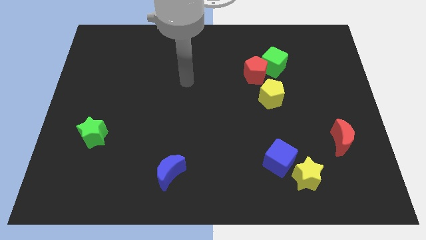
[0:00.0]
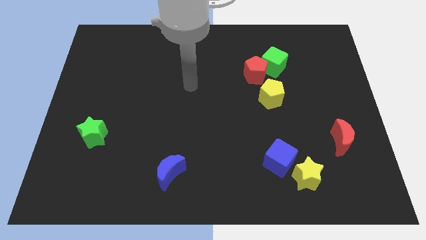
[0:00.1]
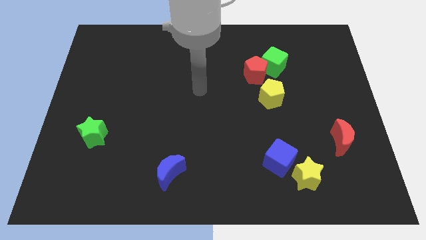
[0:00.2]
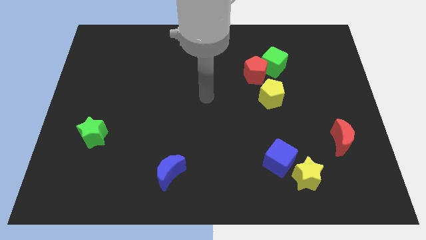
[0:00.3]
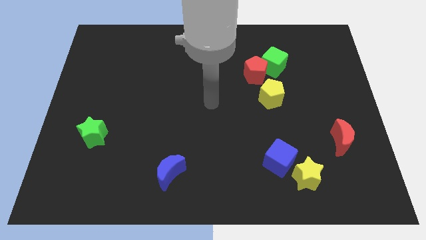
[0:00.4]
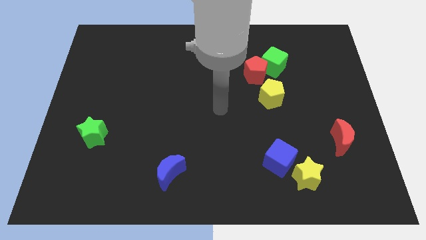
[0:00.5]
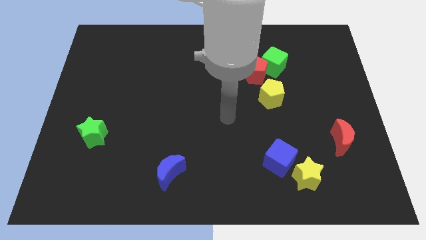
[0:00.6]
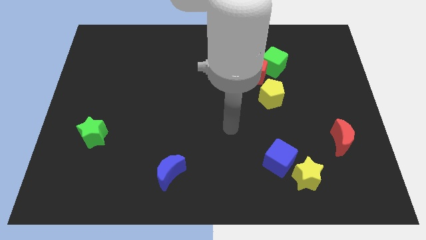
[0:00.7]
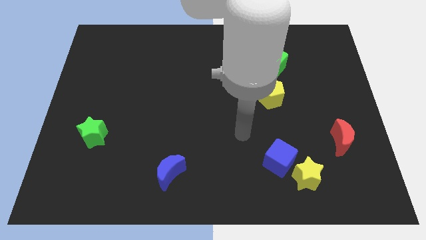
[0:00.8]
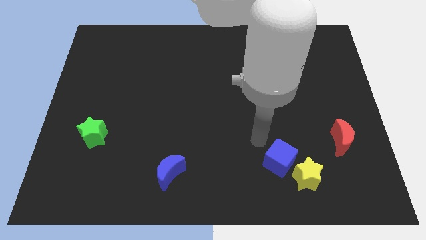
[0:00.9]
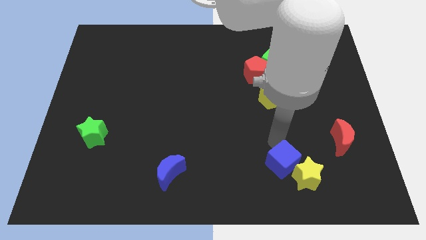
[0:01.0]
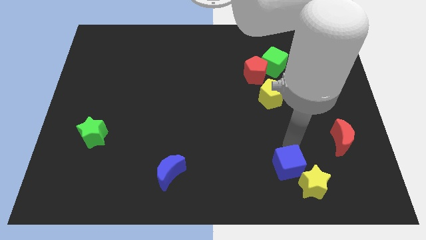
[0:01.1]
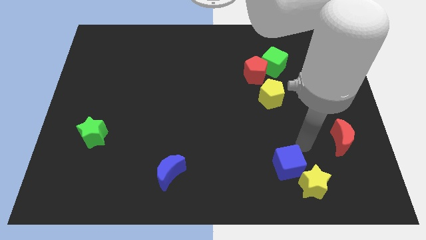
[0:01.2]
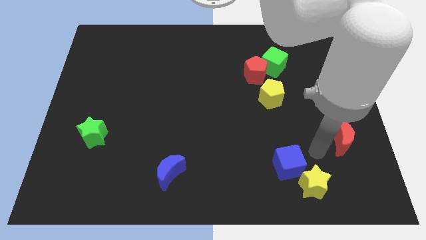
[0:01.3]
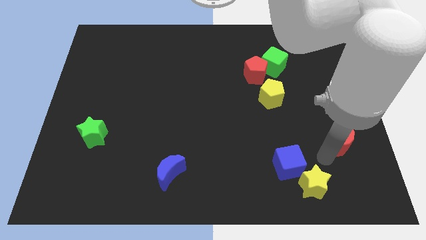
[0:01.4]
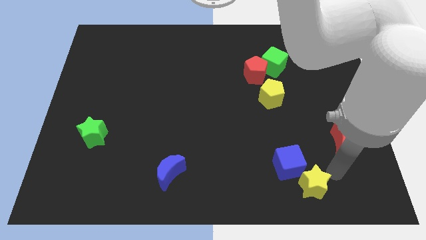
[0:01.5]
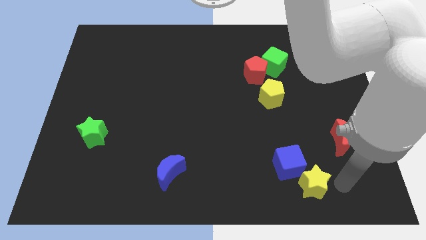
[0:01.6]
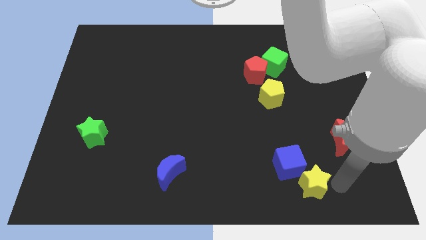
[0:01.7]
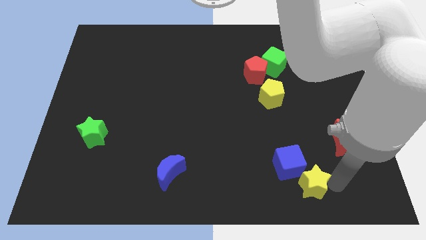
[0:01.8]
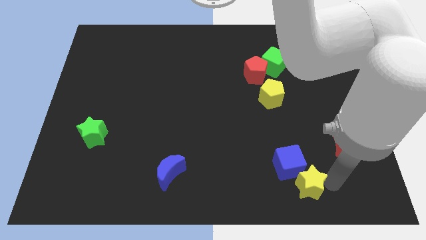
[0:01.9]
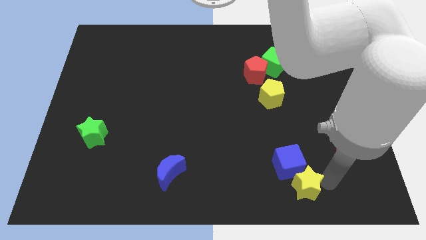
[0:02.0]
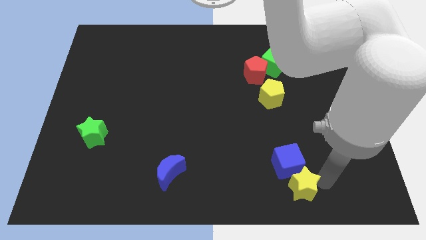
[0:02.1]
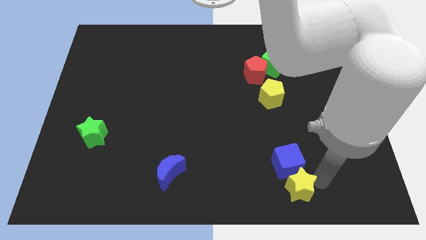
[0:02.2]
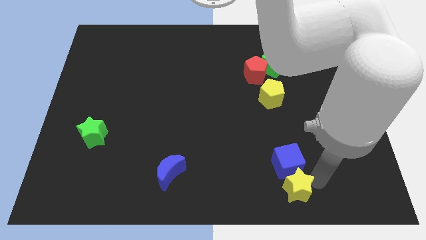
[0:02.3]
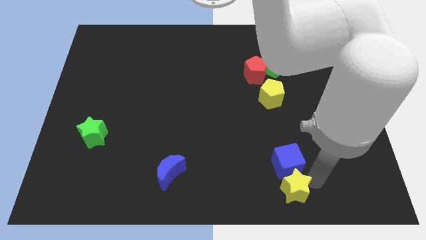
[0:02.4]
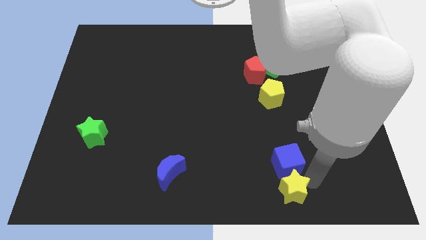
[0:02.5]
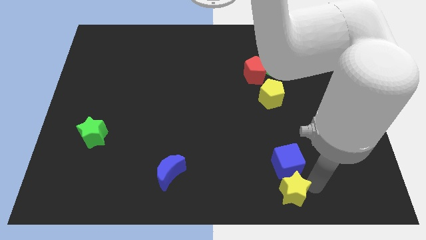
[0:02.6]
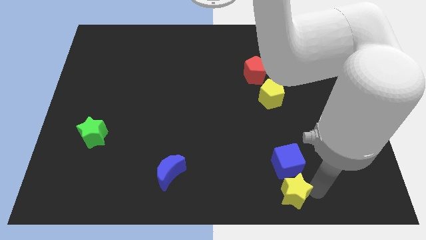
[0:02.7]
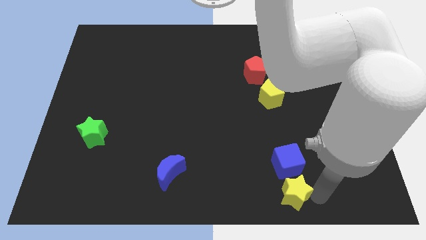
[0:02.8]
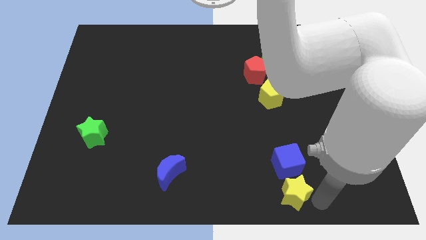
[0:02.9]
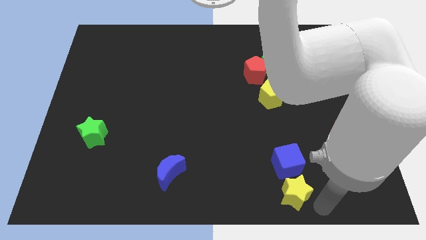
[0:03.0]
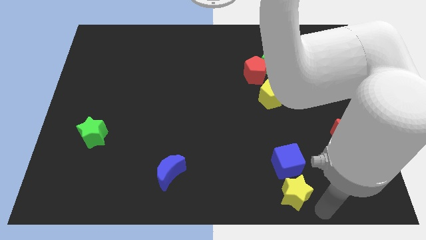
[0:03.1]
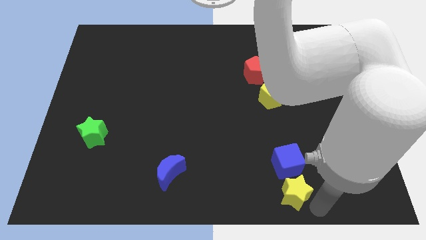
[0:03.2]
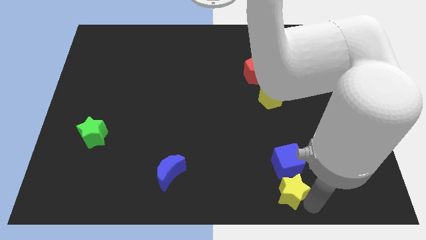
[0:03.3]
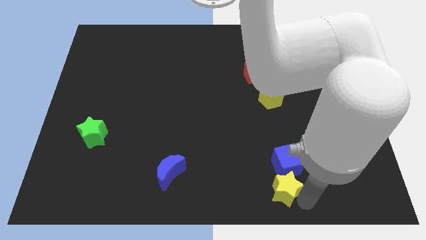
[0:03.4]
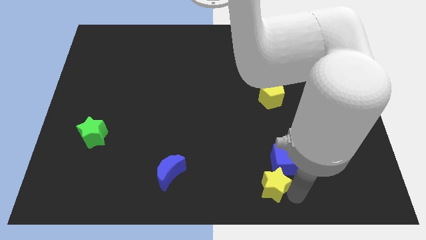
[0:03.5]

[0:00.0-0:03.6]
push the yellow star a bit to the left

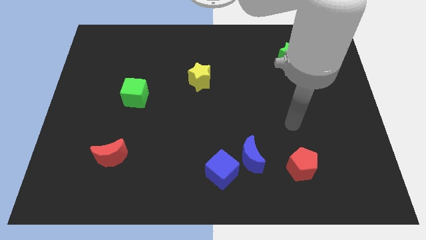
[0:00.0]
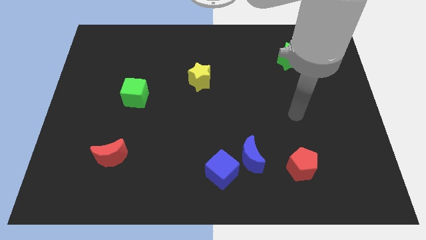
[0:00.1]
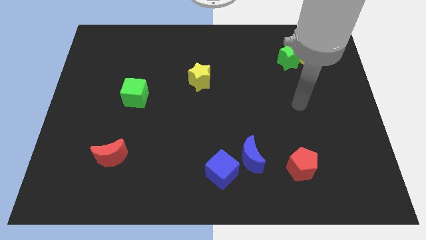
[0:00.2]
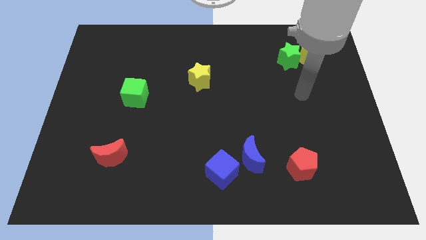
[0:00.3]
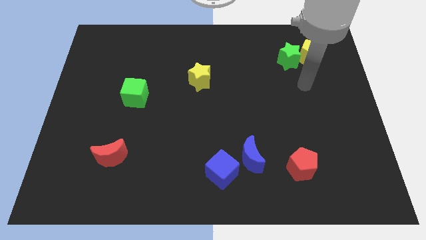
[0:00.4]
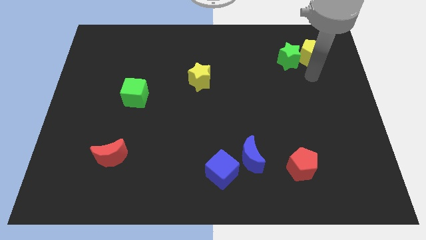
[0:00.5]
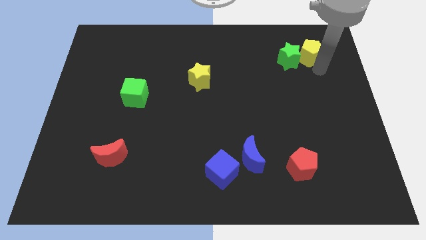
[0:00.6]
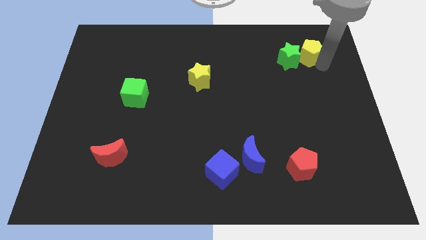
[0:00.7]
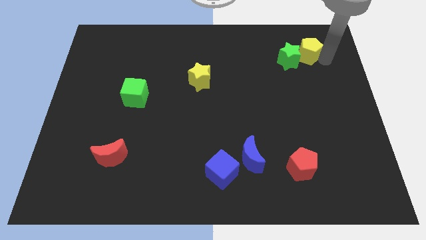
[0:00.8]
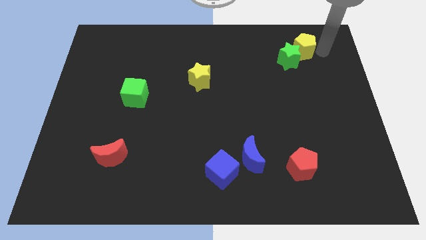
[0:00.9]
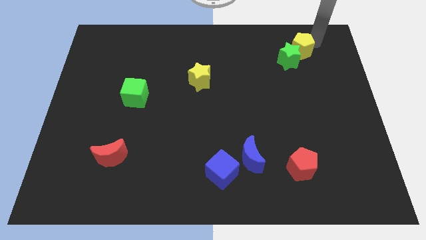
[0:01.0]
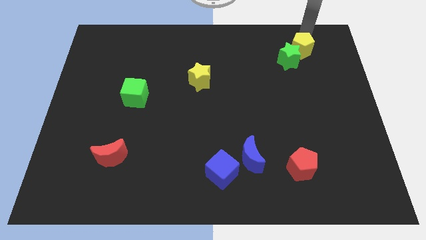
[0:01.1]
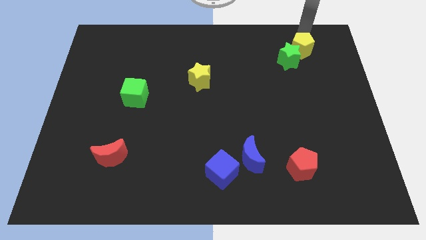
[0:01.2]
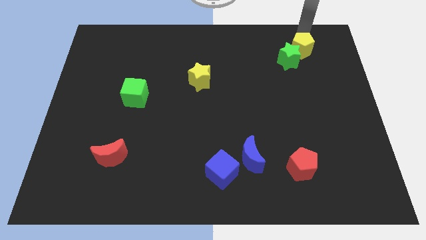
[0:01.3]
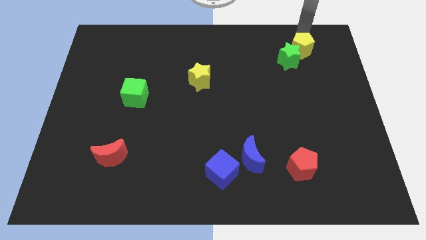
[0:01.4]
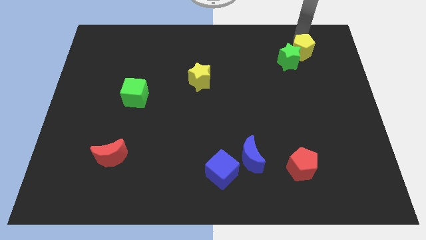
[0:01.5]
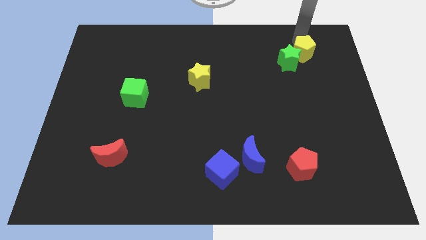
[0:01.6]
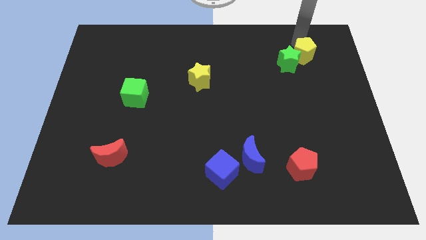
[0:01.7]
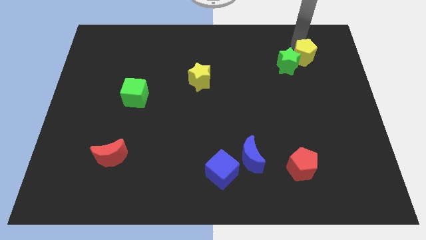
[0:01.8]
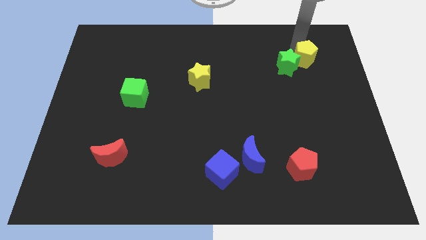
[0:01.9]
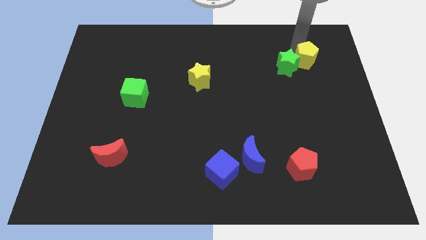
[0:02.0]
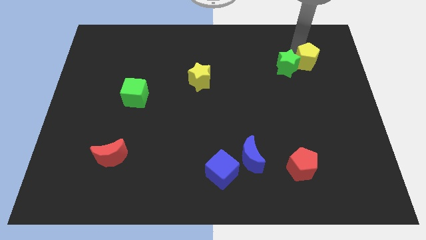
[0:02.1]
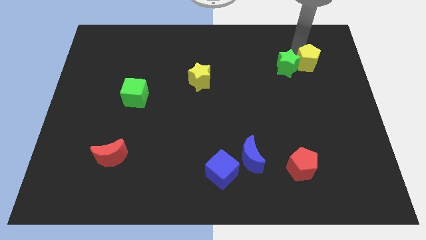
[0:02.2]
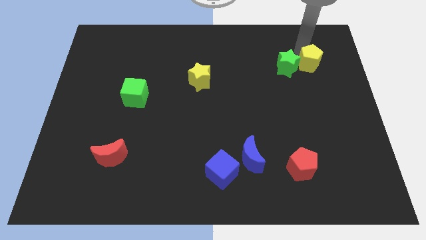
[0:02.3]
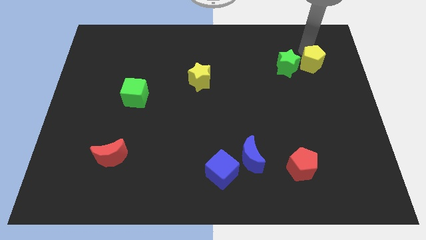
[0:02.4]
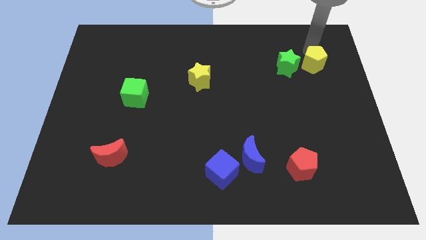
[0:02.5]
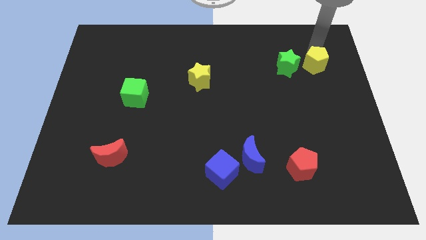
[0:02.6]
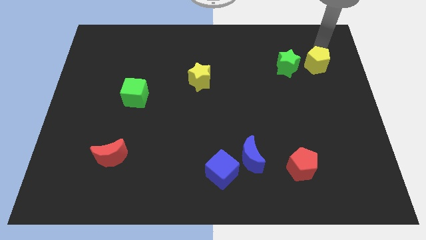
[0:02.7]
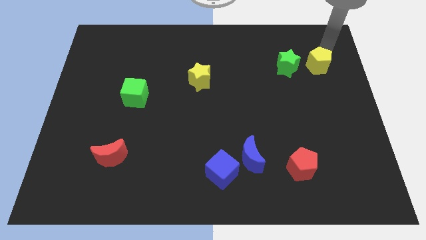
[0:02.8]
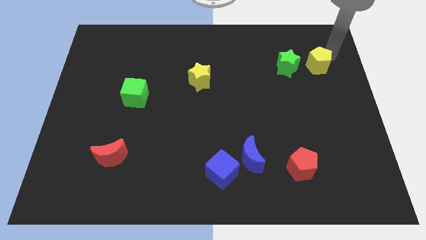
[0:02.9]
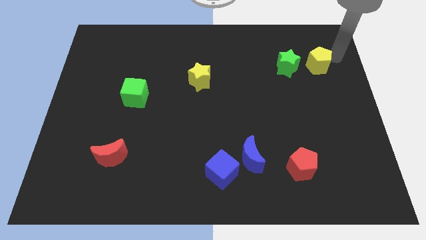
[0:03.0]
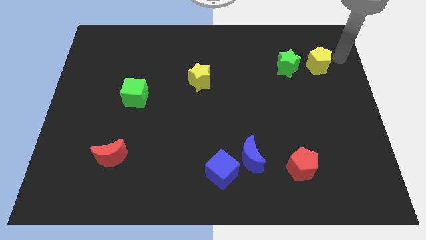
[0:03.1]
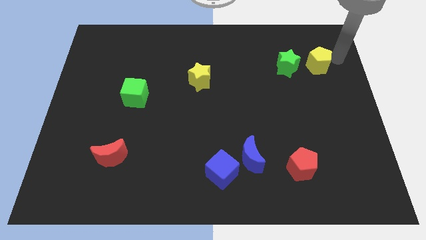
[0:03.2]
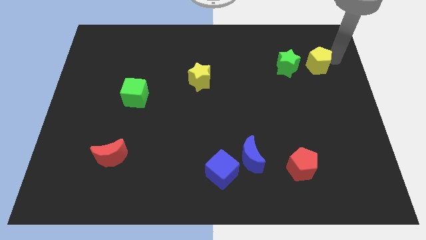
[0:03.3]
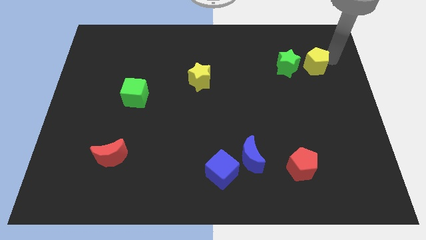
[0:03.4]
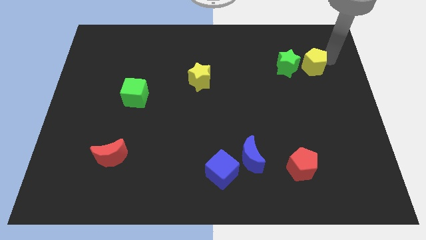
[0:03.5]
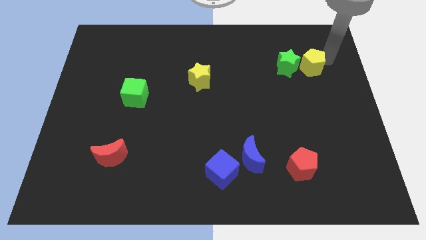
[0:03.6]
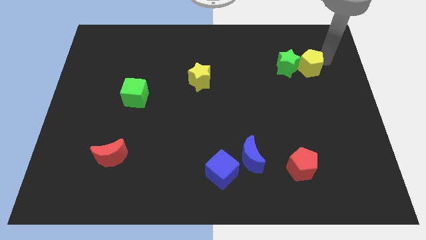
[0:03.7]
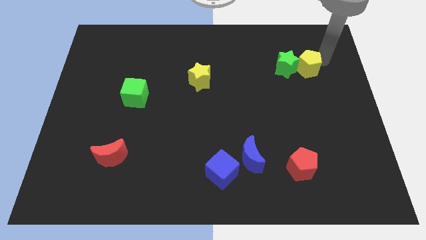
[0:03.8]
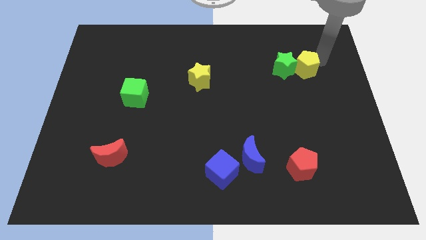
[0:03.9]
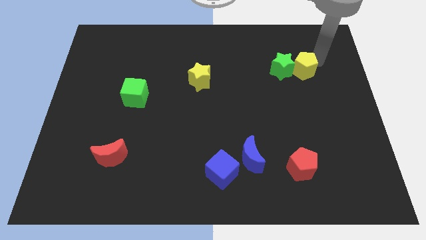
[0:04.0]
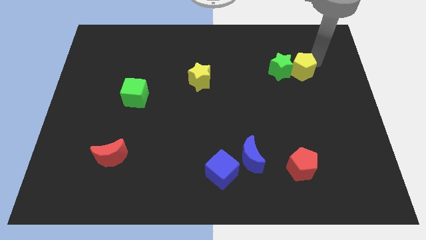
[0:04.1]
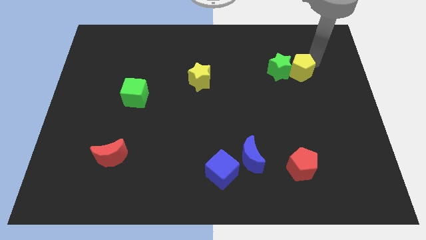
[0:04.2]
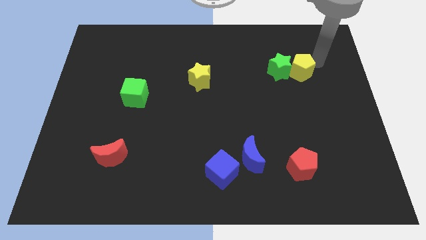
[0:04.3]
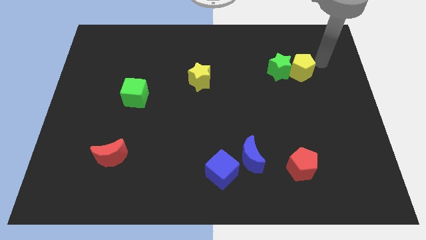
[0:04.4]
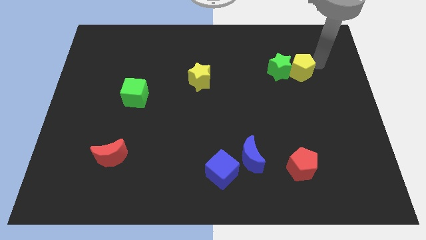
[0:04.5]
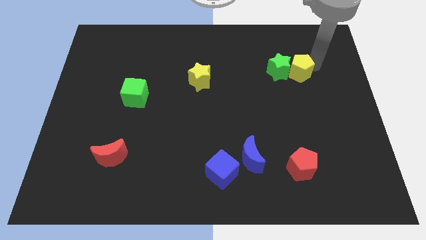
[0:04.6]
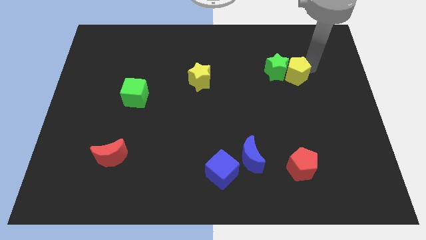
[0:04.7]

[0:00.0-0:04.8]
push the yellow pentagon down and left a little

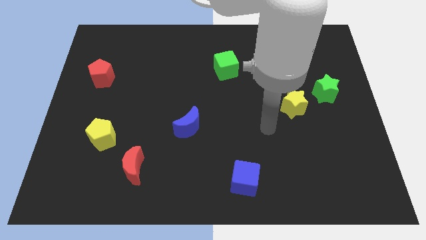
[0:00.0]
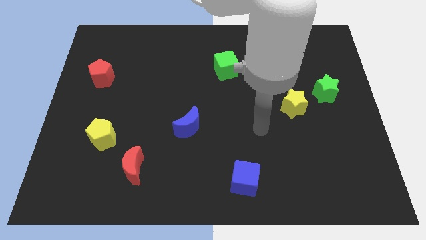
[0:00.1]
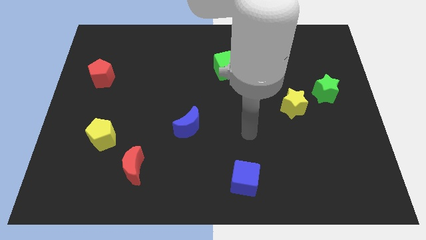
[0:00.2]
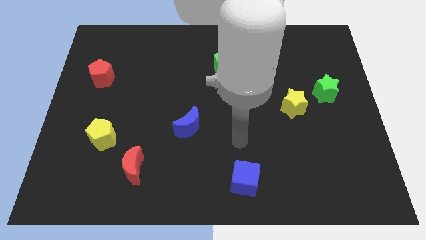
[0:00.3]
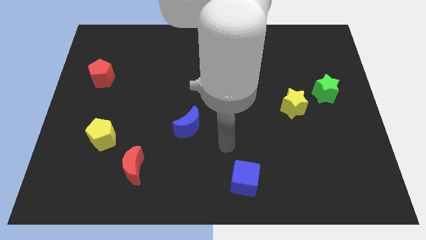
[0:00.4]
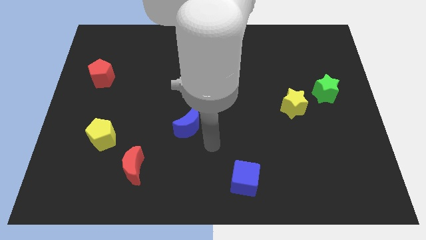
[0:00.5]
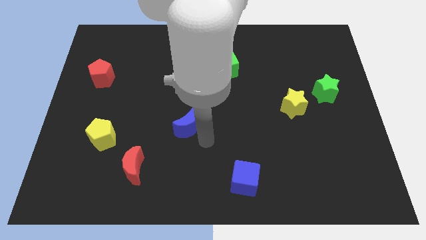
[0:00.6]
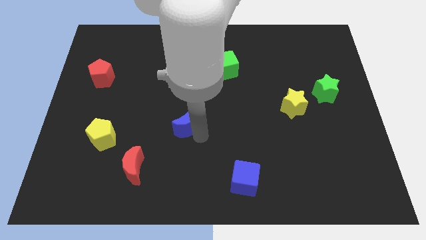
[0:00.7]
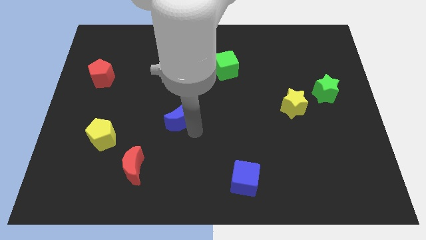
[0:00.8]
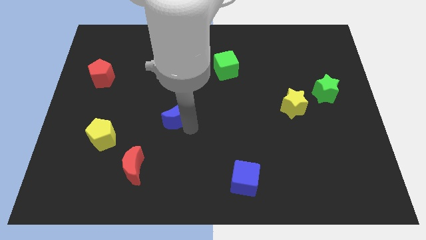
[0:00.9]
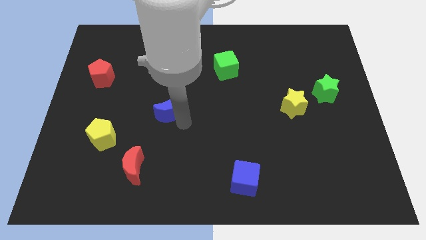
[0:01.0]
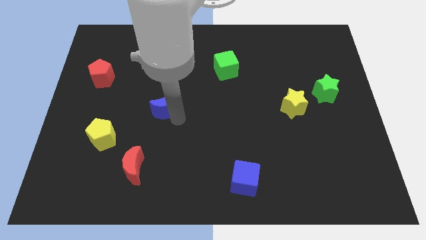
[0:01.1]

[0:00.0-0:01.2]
slide the blue moon diagonally up and to the left a bit
